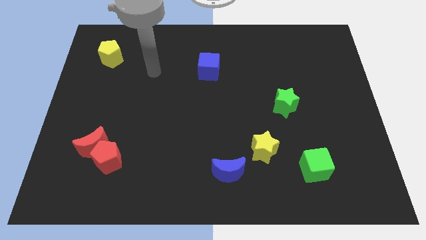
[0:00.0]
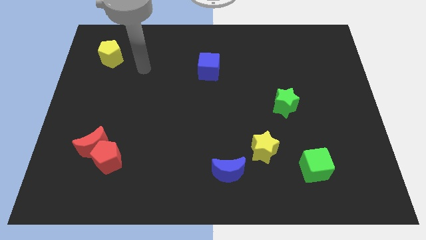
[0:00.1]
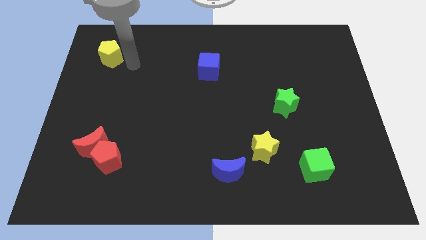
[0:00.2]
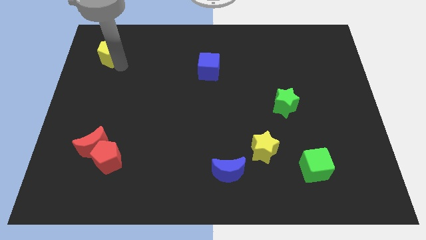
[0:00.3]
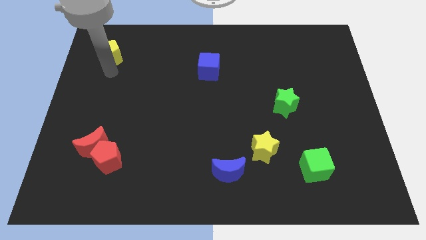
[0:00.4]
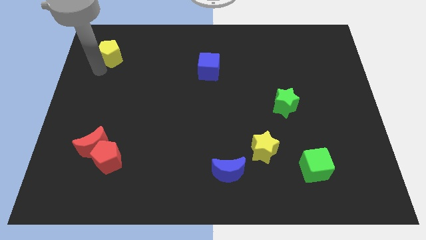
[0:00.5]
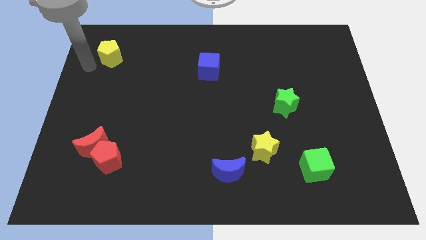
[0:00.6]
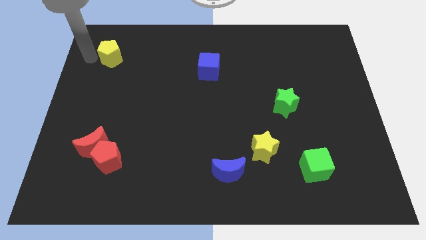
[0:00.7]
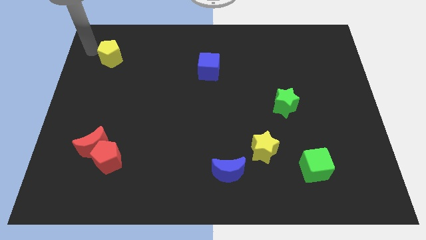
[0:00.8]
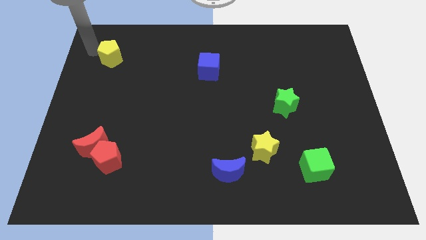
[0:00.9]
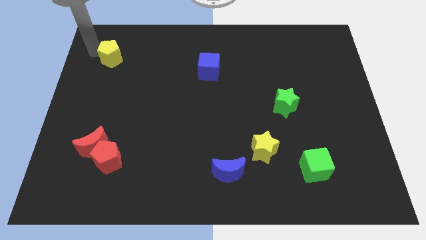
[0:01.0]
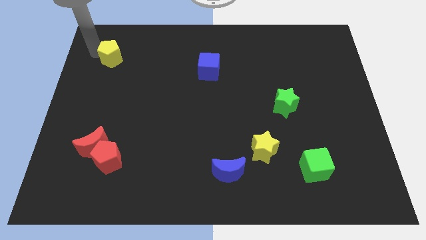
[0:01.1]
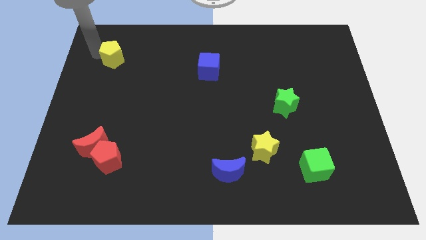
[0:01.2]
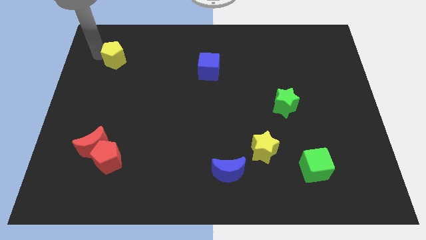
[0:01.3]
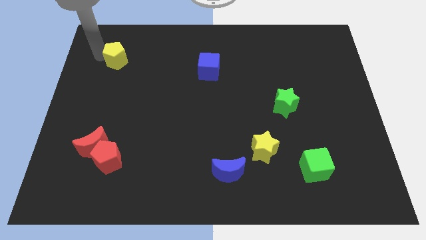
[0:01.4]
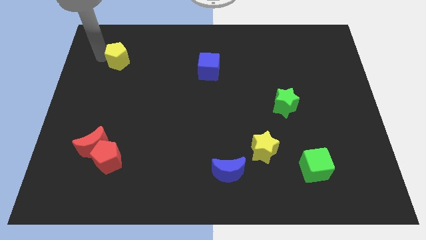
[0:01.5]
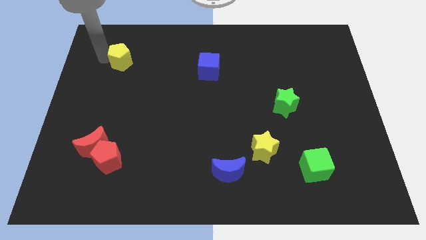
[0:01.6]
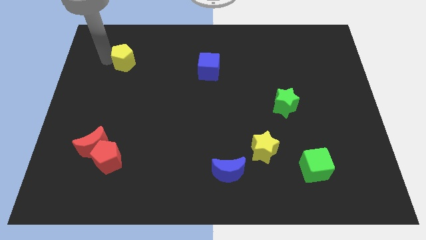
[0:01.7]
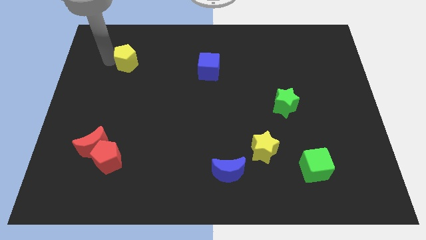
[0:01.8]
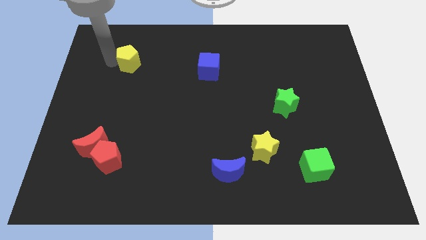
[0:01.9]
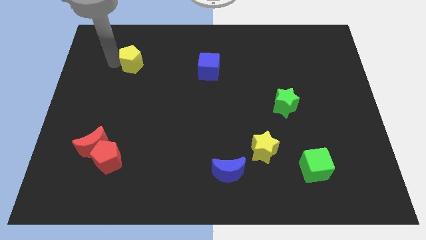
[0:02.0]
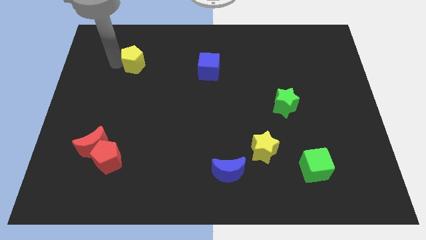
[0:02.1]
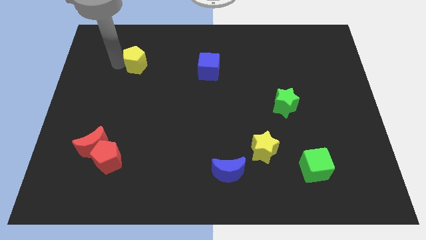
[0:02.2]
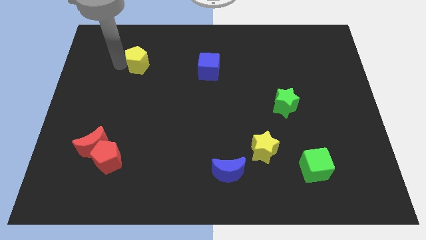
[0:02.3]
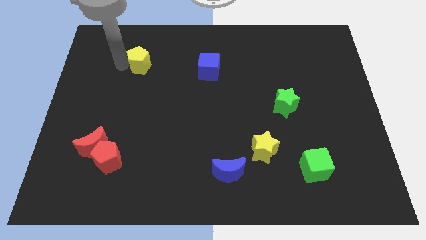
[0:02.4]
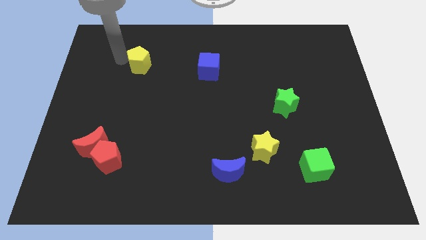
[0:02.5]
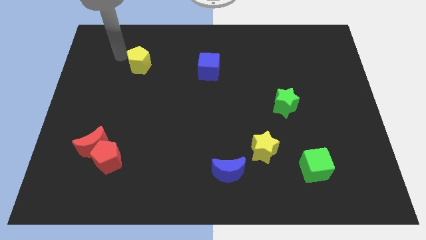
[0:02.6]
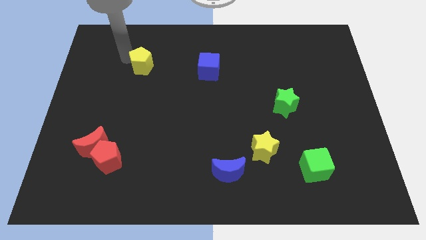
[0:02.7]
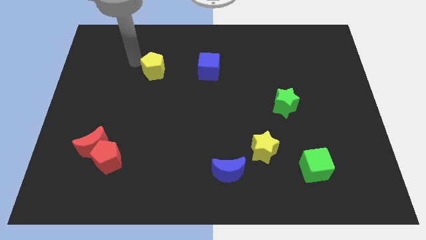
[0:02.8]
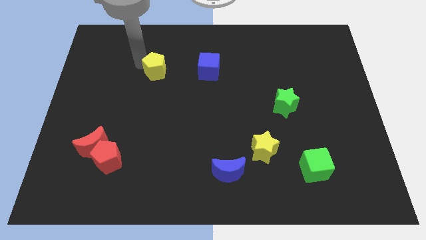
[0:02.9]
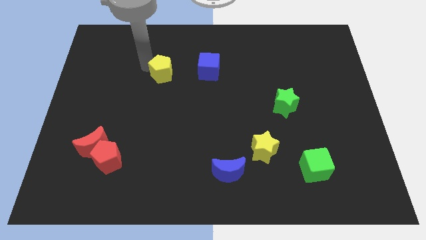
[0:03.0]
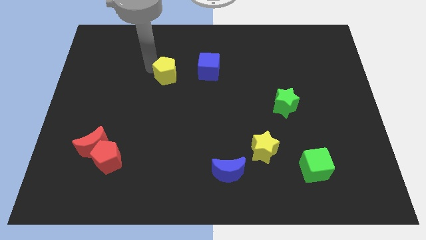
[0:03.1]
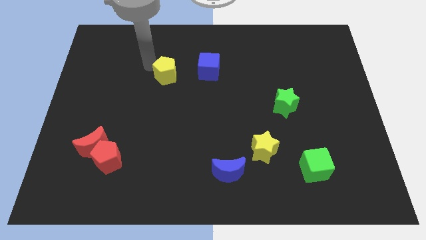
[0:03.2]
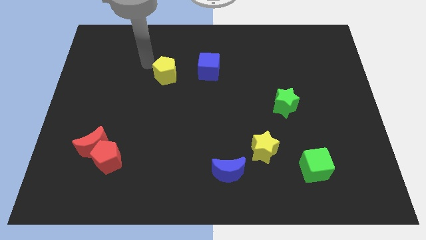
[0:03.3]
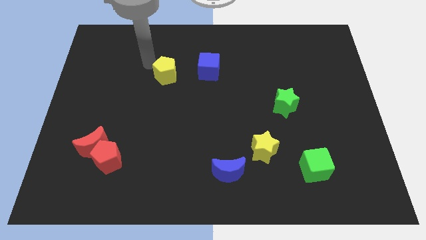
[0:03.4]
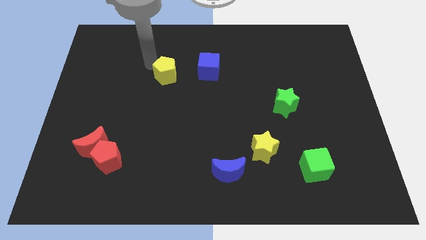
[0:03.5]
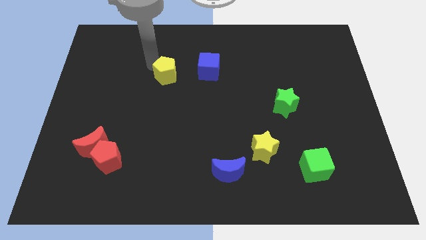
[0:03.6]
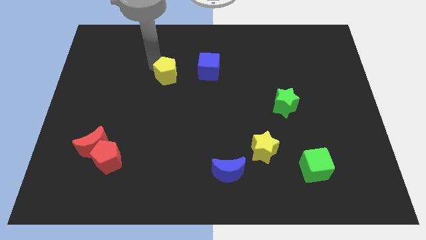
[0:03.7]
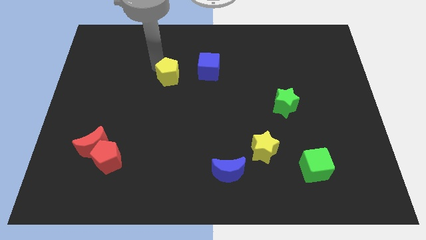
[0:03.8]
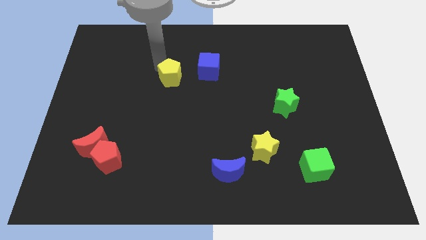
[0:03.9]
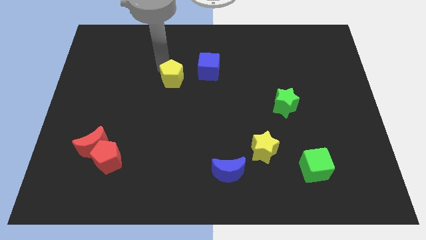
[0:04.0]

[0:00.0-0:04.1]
slide the yellow pentagon to the bottom left of the blue cube

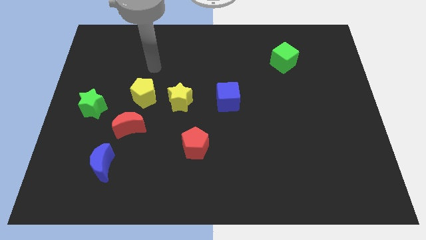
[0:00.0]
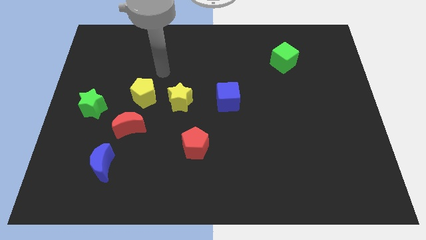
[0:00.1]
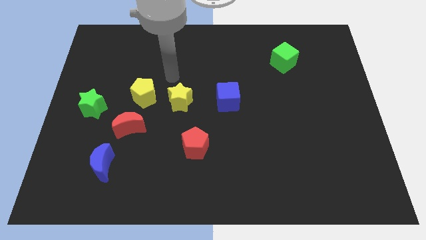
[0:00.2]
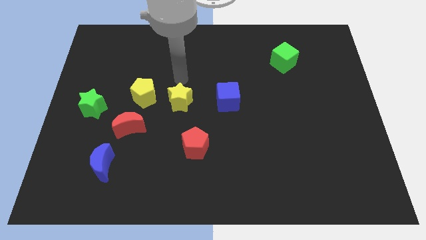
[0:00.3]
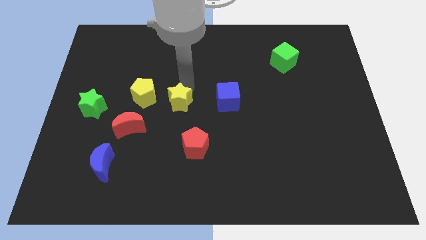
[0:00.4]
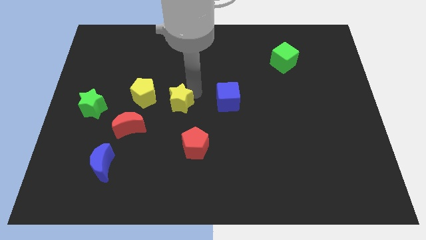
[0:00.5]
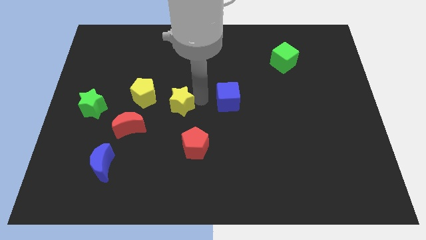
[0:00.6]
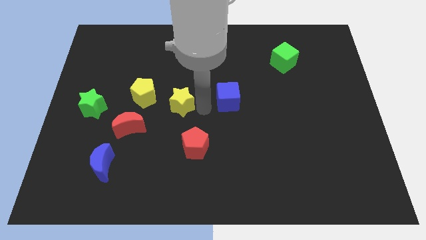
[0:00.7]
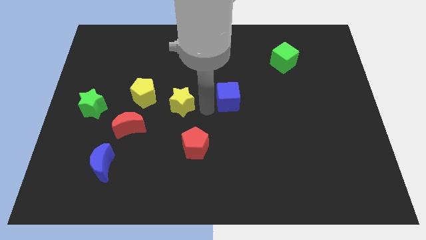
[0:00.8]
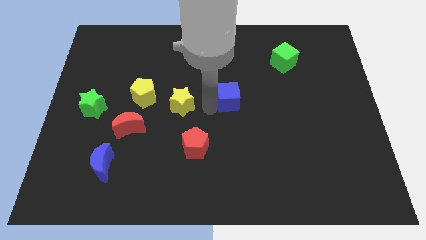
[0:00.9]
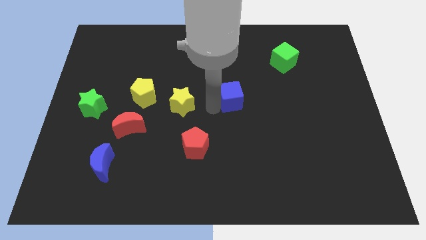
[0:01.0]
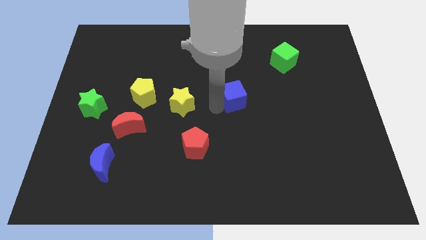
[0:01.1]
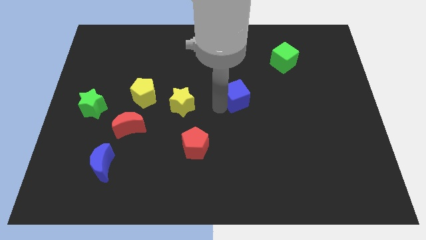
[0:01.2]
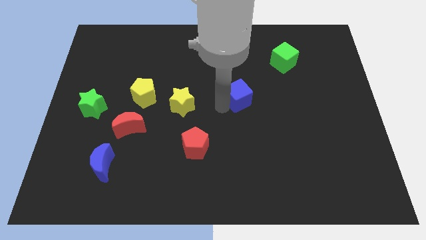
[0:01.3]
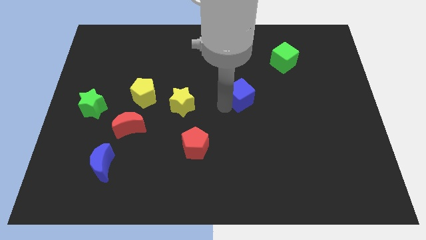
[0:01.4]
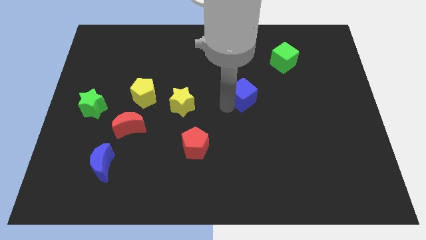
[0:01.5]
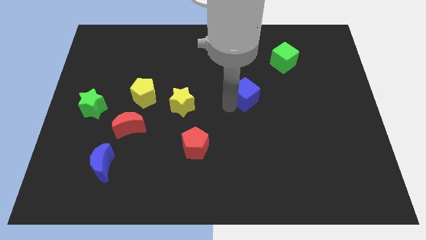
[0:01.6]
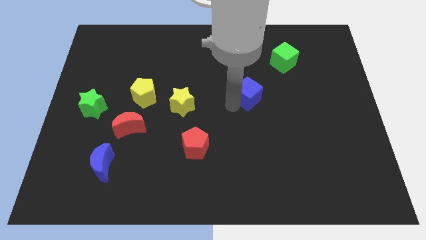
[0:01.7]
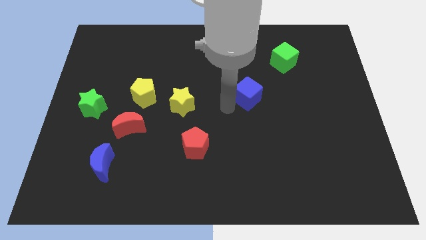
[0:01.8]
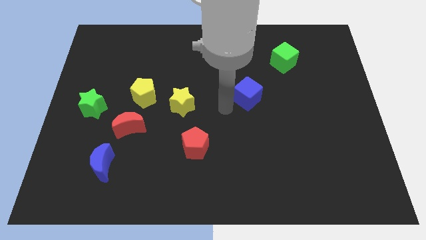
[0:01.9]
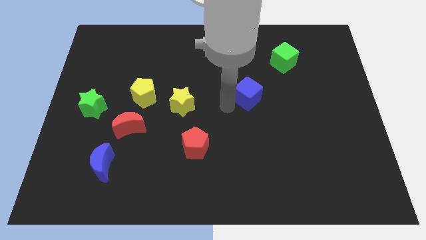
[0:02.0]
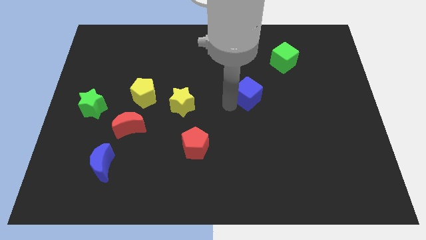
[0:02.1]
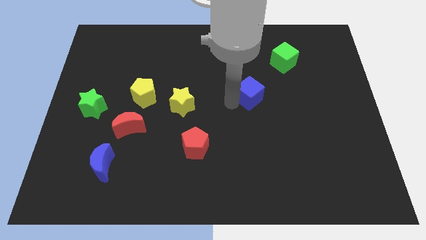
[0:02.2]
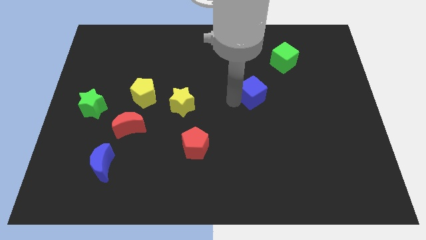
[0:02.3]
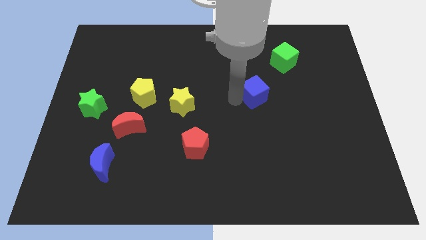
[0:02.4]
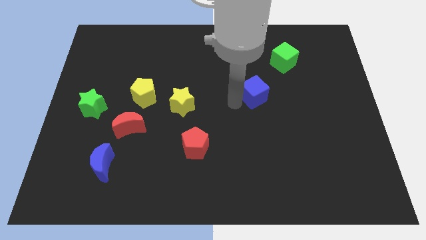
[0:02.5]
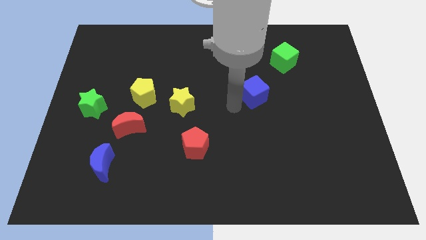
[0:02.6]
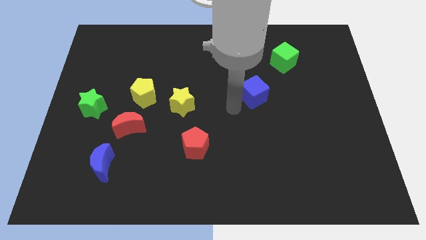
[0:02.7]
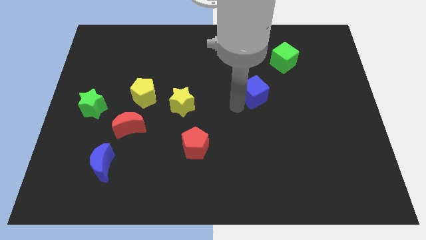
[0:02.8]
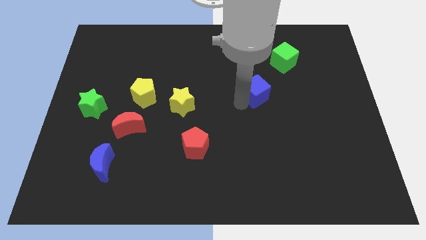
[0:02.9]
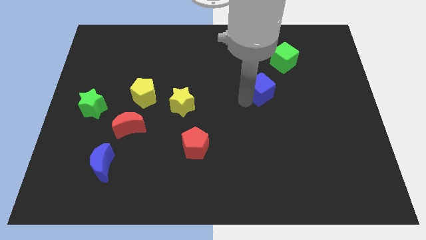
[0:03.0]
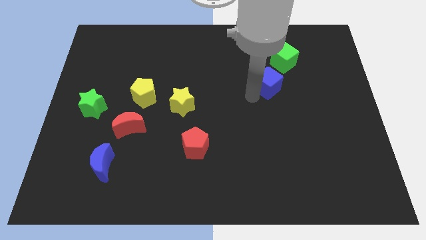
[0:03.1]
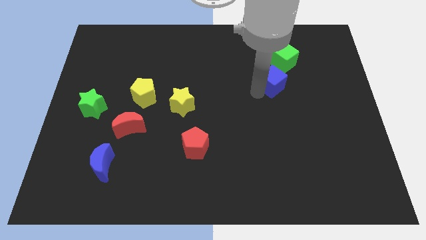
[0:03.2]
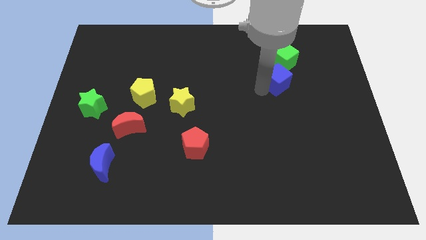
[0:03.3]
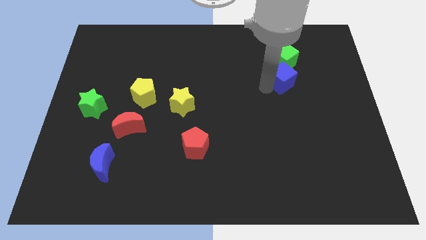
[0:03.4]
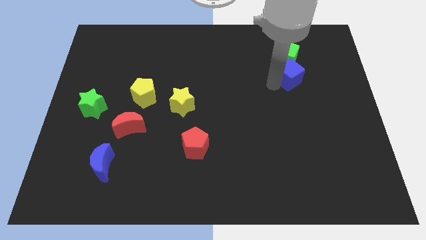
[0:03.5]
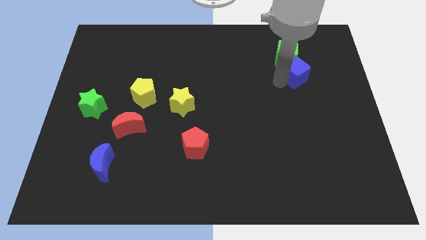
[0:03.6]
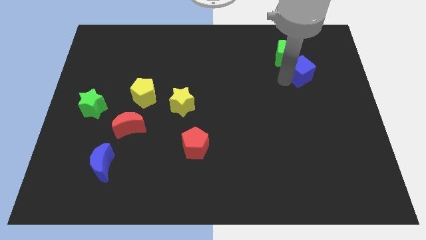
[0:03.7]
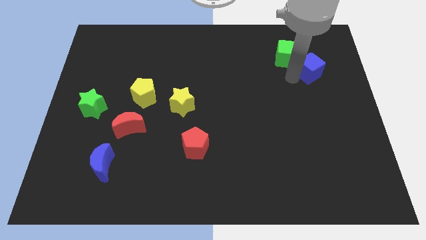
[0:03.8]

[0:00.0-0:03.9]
push the blue cube to the right of the green cube
